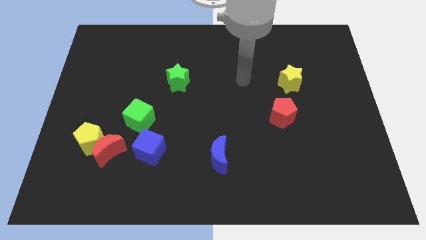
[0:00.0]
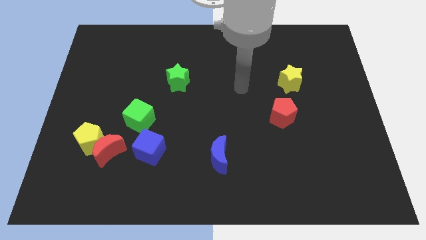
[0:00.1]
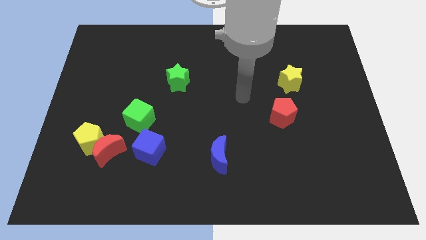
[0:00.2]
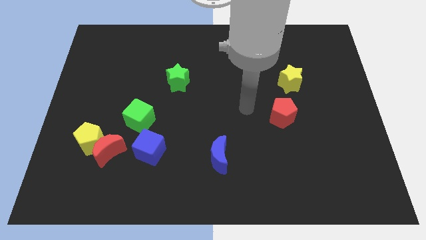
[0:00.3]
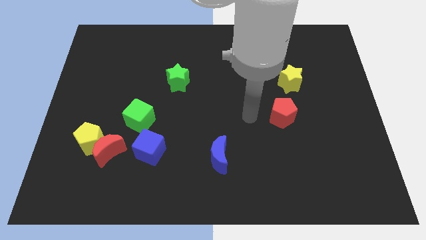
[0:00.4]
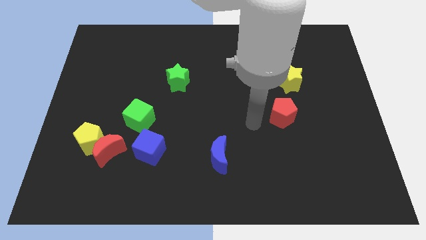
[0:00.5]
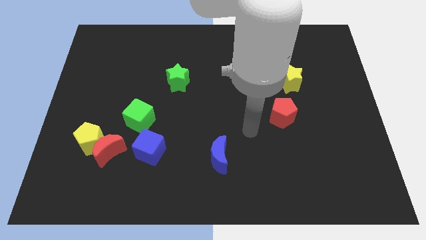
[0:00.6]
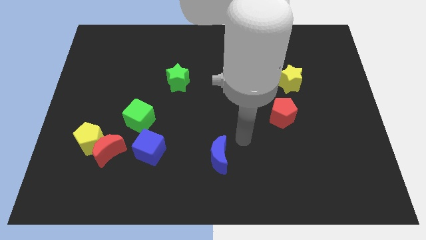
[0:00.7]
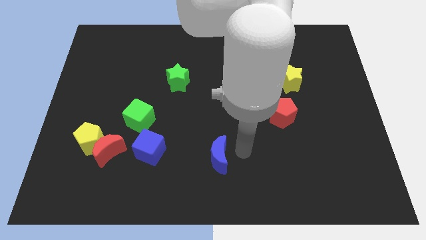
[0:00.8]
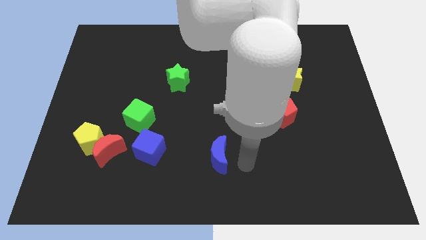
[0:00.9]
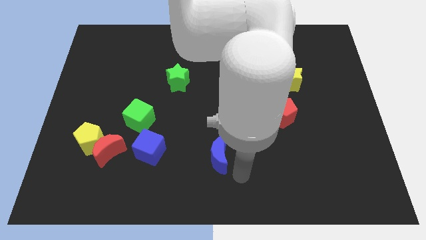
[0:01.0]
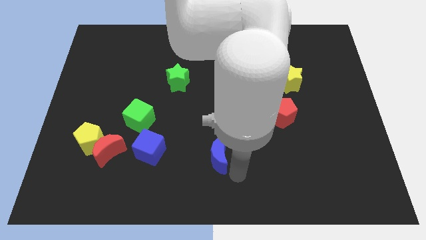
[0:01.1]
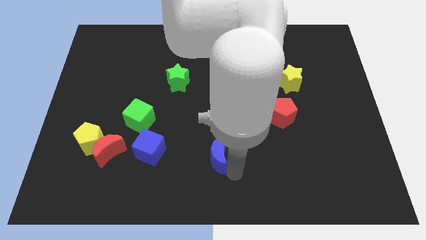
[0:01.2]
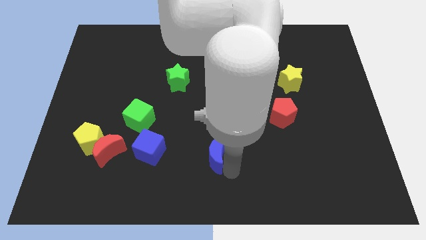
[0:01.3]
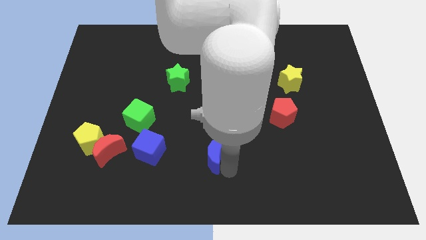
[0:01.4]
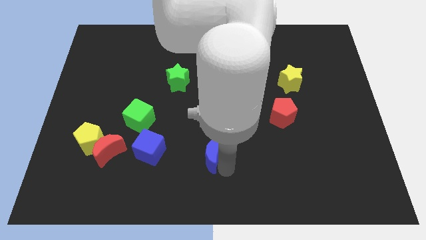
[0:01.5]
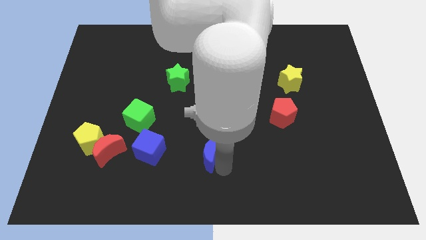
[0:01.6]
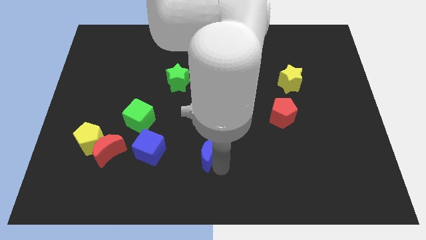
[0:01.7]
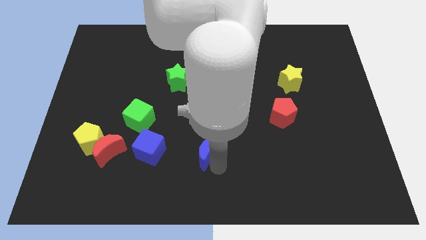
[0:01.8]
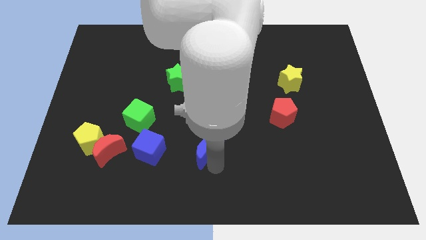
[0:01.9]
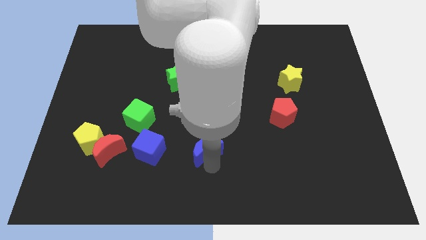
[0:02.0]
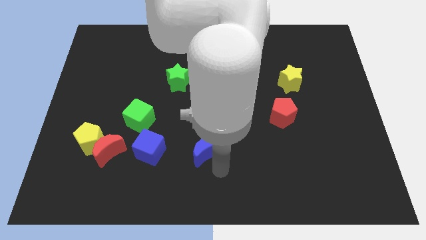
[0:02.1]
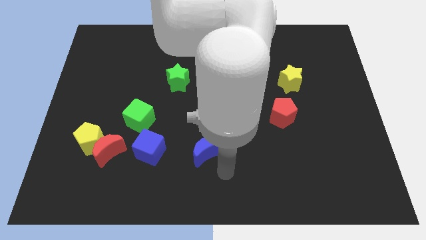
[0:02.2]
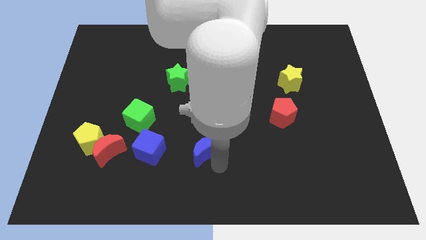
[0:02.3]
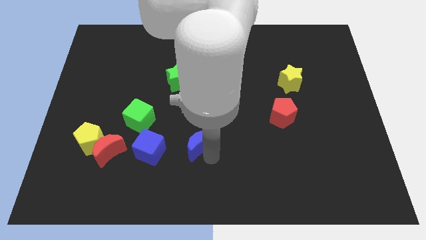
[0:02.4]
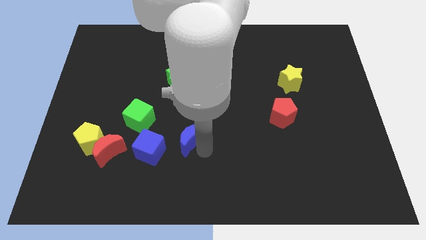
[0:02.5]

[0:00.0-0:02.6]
push the blue moon up and then left a bit

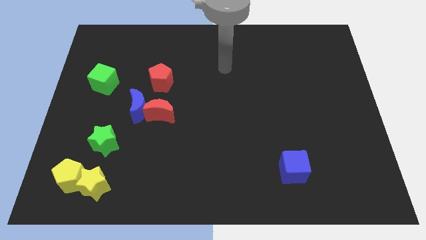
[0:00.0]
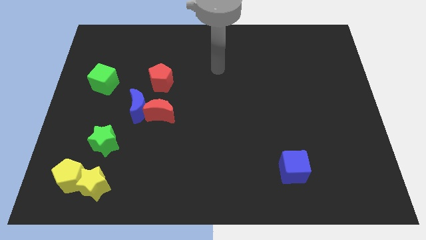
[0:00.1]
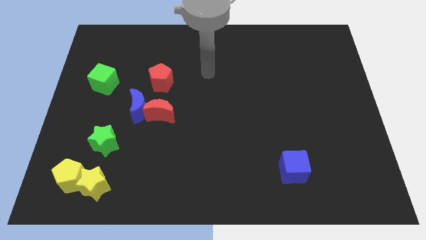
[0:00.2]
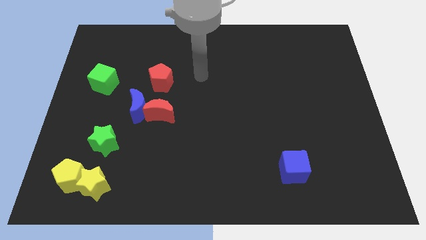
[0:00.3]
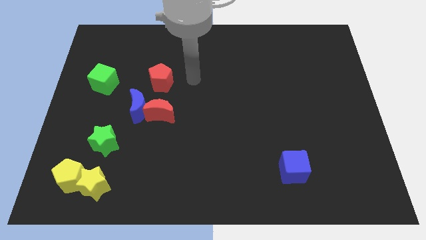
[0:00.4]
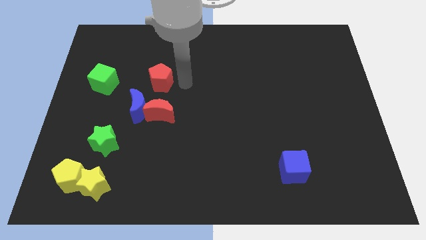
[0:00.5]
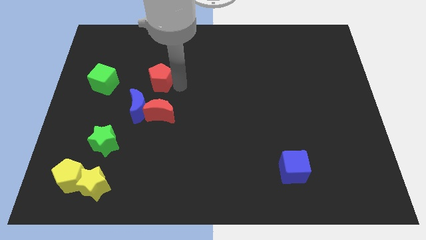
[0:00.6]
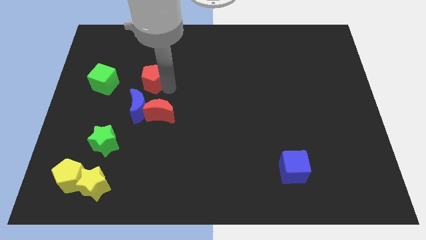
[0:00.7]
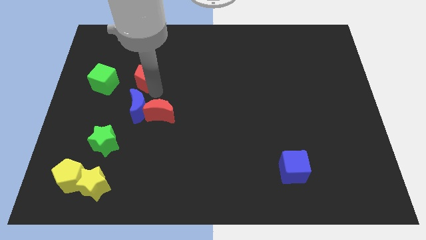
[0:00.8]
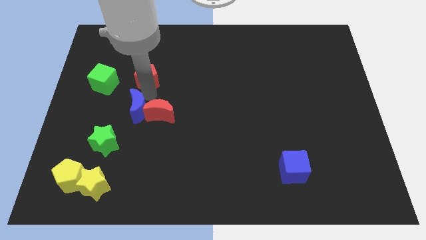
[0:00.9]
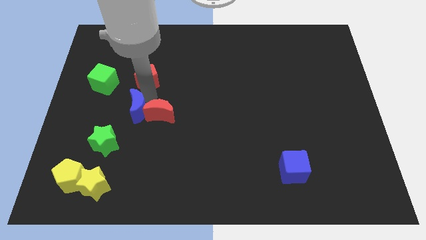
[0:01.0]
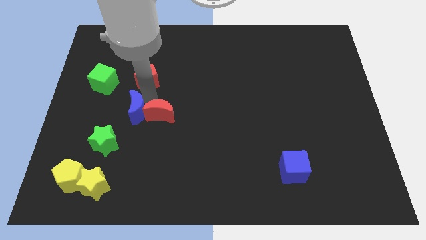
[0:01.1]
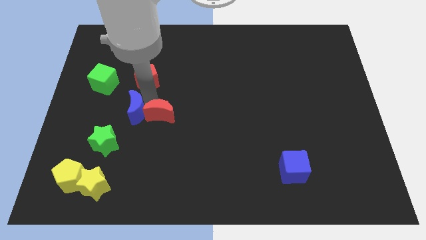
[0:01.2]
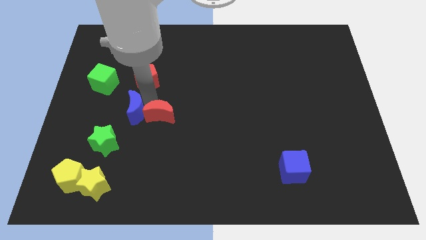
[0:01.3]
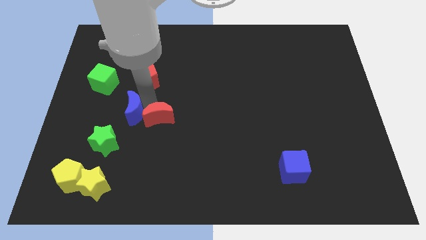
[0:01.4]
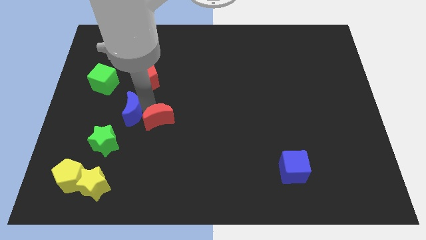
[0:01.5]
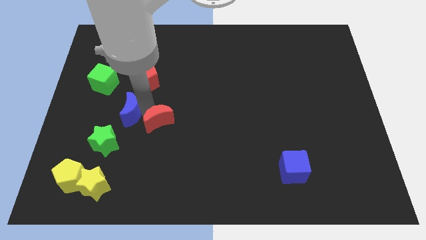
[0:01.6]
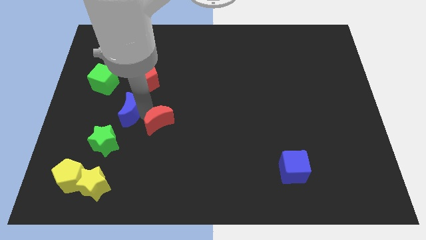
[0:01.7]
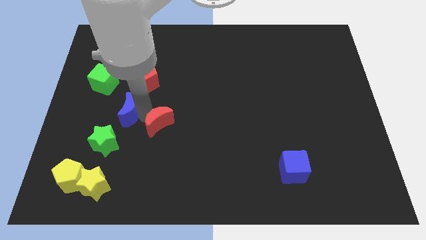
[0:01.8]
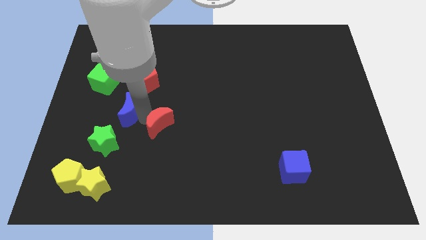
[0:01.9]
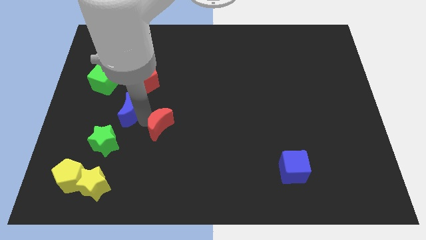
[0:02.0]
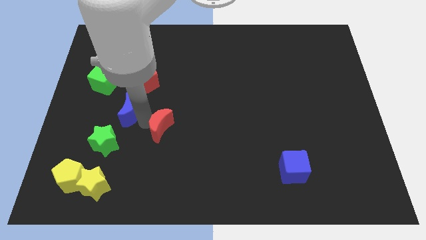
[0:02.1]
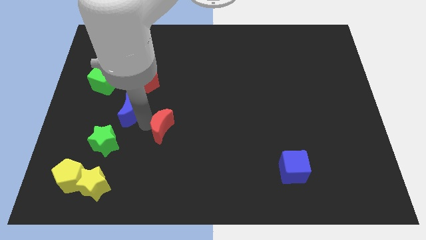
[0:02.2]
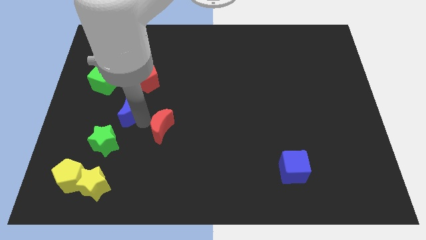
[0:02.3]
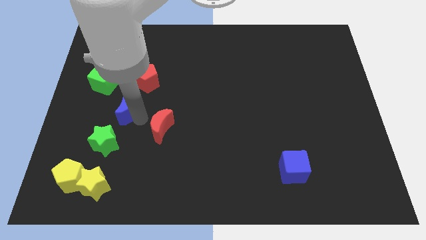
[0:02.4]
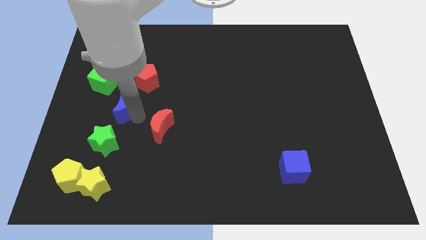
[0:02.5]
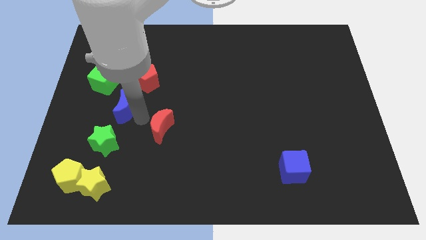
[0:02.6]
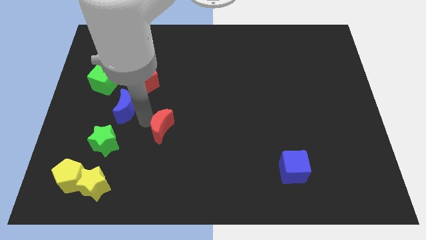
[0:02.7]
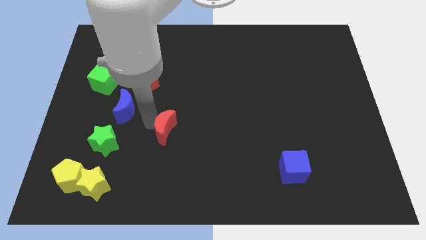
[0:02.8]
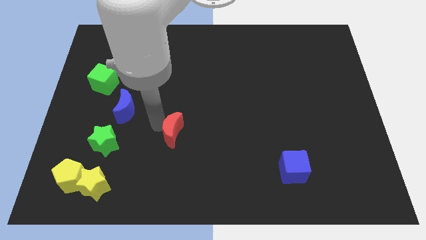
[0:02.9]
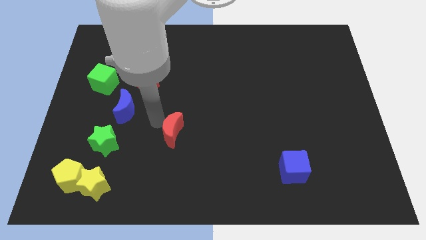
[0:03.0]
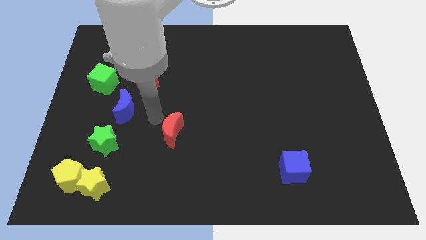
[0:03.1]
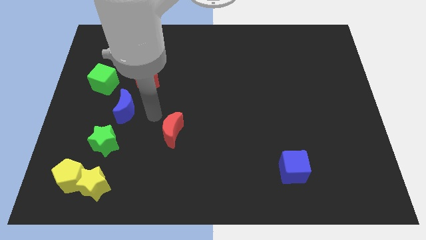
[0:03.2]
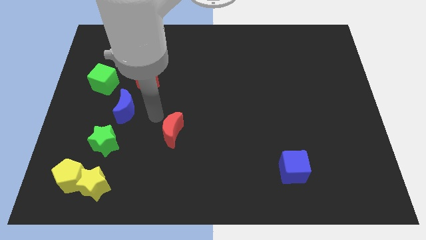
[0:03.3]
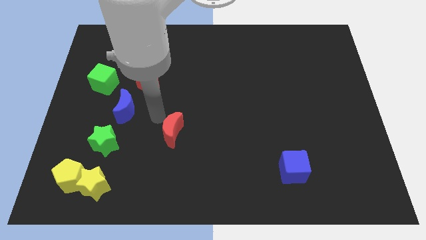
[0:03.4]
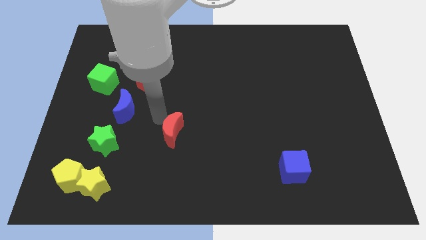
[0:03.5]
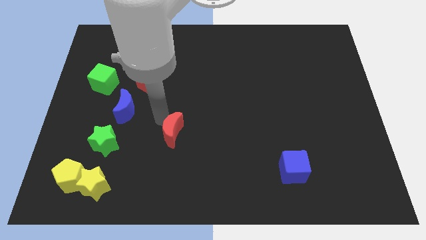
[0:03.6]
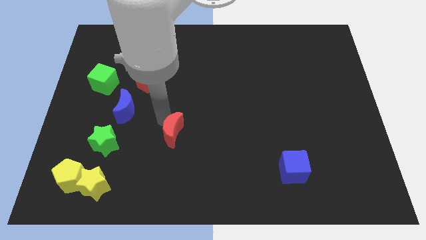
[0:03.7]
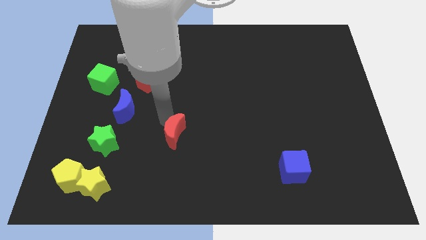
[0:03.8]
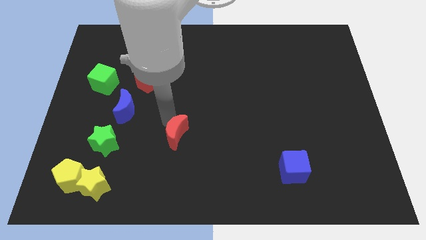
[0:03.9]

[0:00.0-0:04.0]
push the red moon a little down and to the right

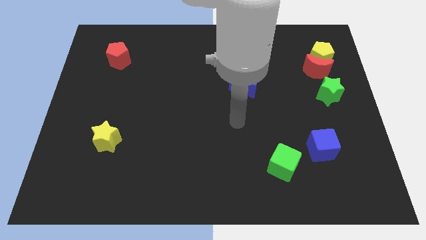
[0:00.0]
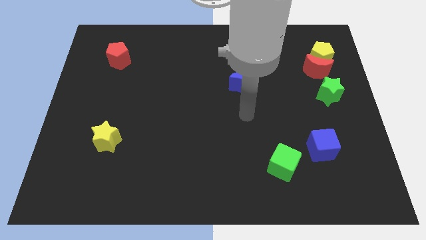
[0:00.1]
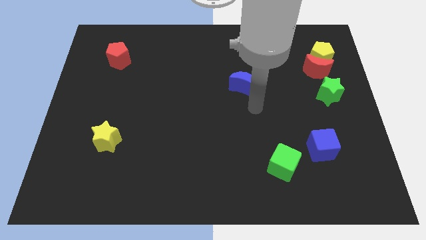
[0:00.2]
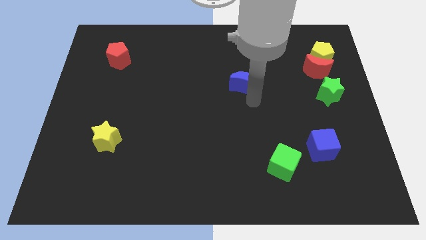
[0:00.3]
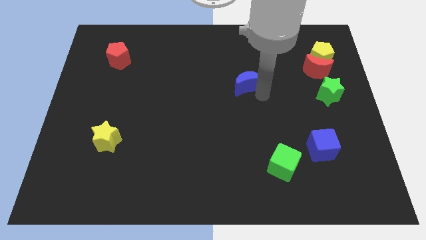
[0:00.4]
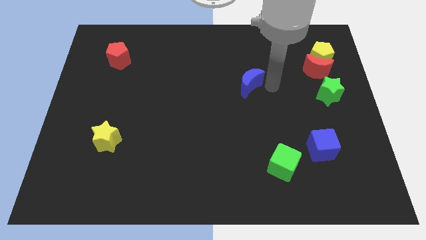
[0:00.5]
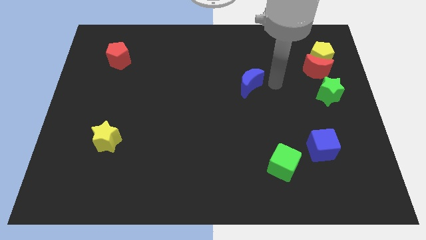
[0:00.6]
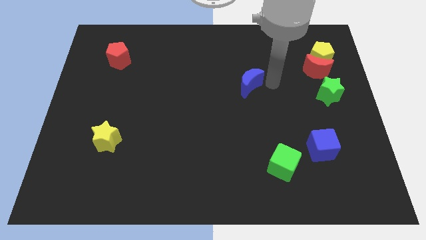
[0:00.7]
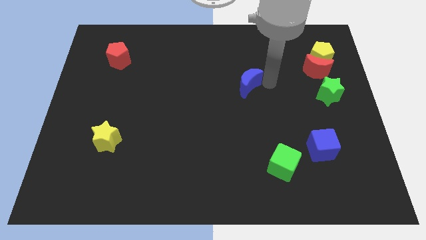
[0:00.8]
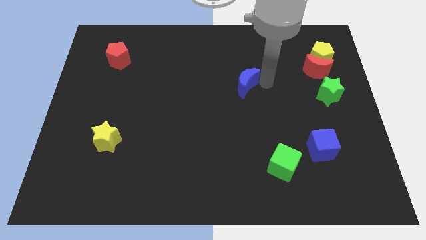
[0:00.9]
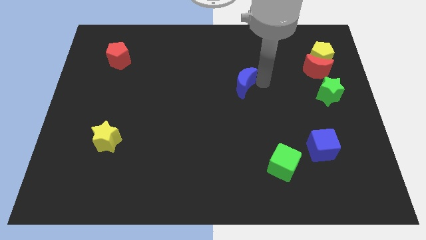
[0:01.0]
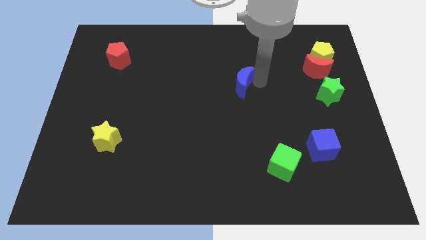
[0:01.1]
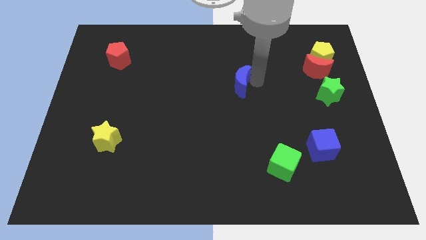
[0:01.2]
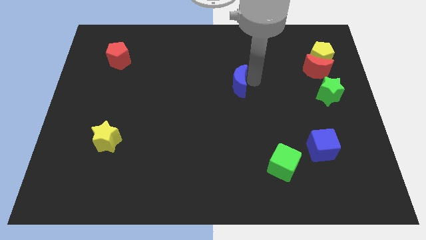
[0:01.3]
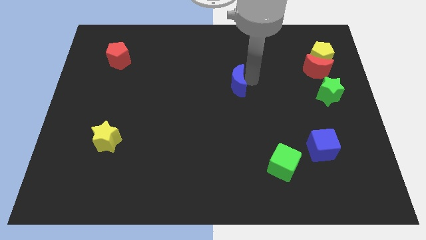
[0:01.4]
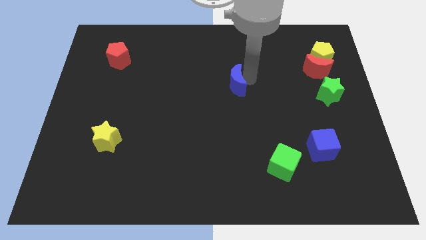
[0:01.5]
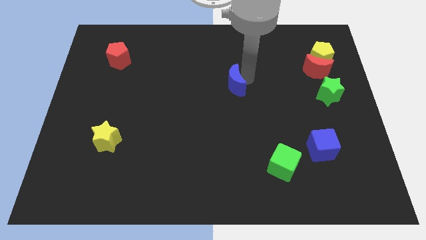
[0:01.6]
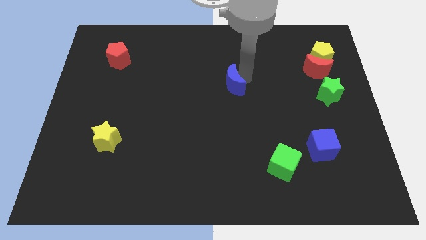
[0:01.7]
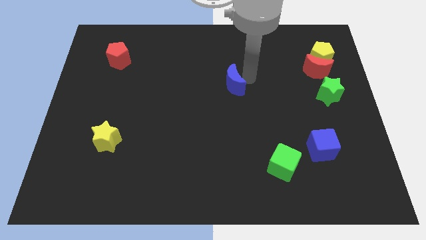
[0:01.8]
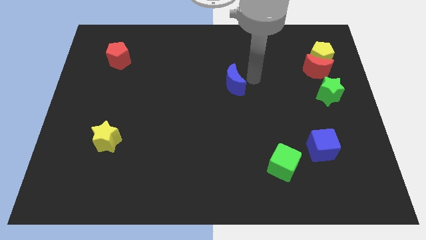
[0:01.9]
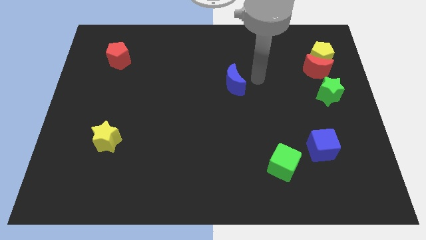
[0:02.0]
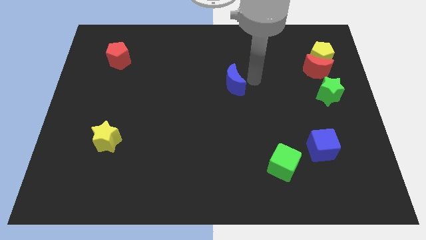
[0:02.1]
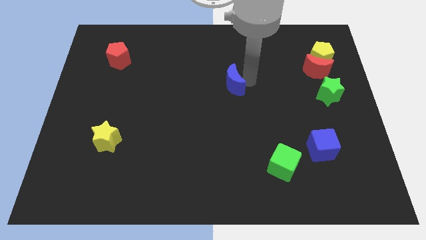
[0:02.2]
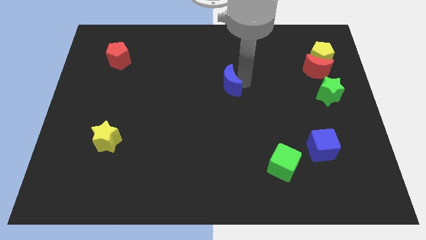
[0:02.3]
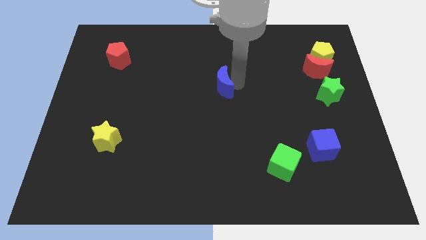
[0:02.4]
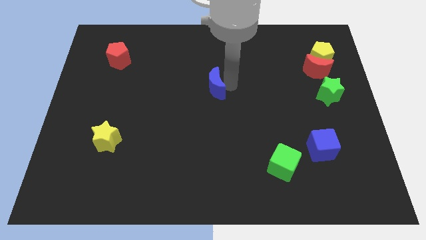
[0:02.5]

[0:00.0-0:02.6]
slightly move the blue moon left
